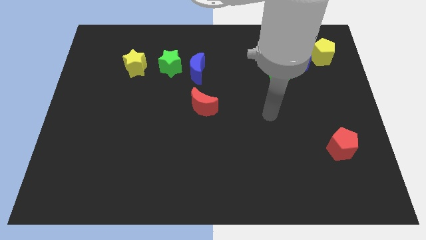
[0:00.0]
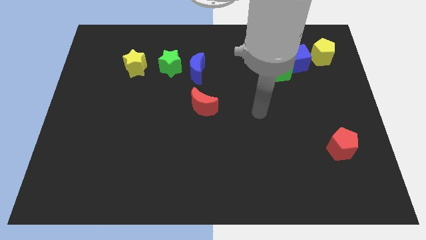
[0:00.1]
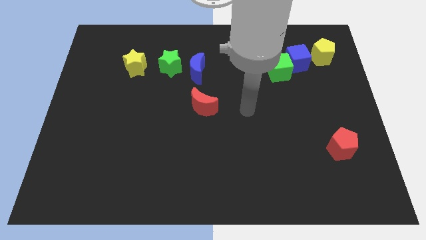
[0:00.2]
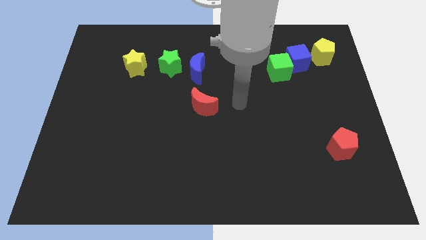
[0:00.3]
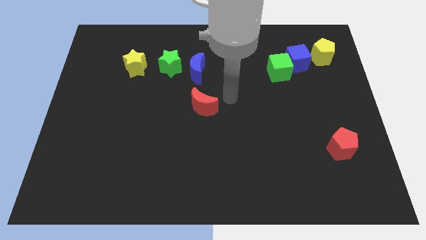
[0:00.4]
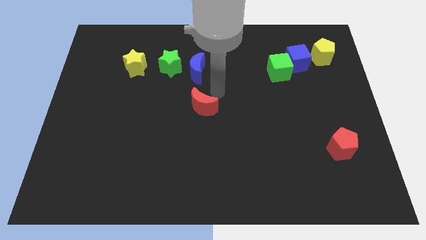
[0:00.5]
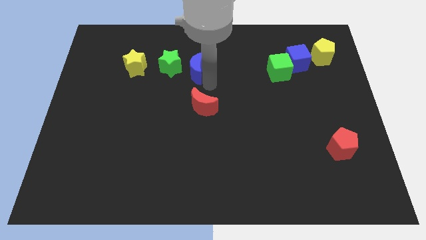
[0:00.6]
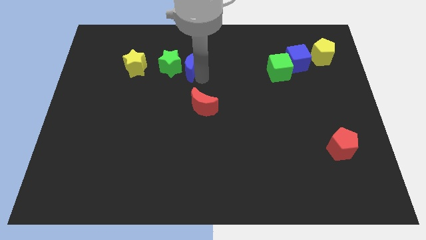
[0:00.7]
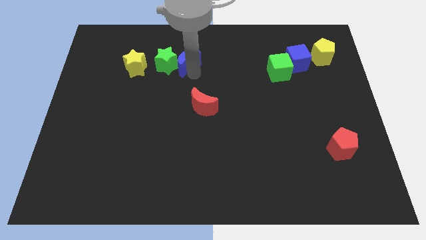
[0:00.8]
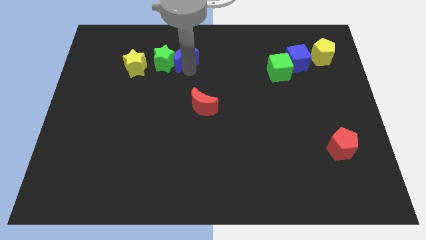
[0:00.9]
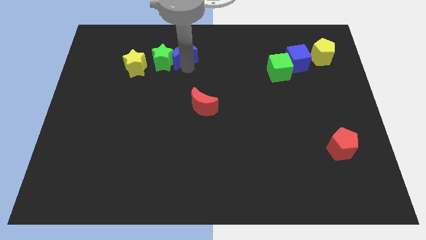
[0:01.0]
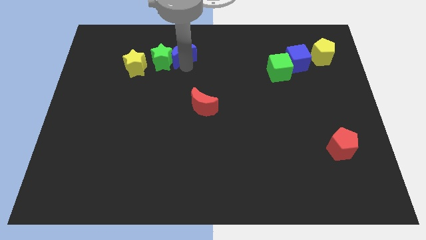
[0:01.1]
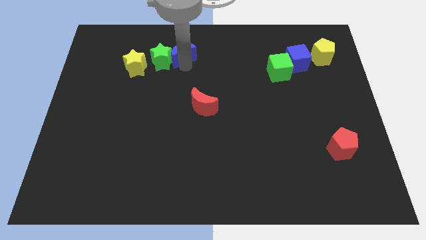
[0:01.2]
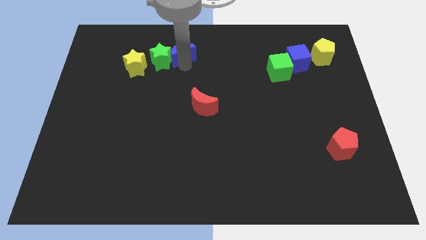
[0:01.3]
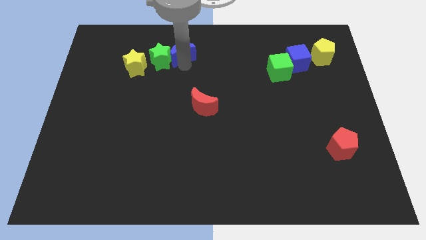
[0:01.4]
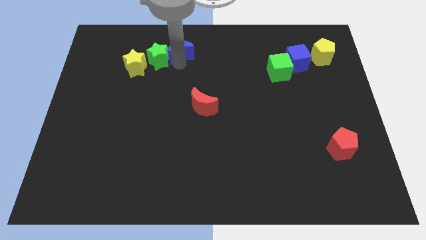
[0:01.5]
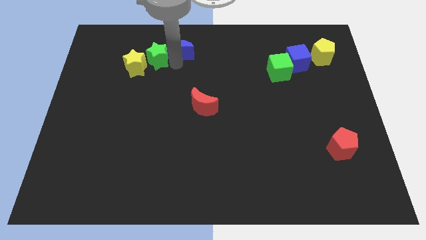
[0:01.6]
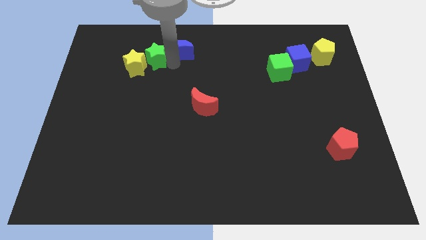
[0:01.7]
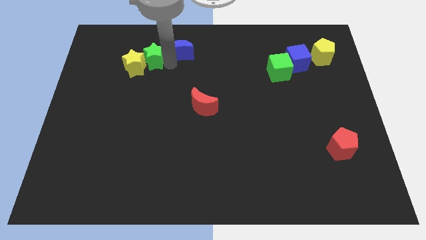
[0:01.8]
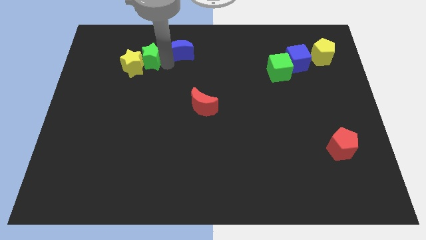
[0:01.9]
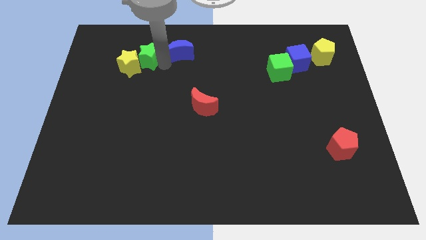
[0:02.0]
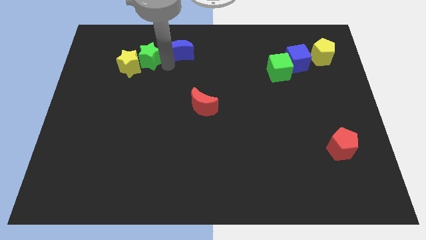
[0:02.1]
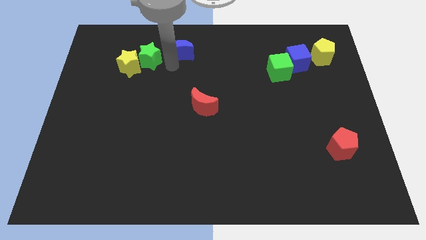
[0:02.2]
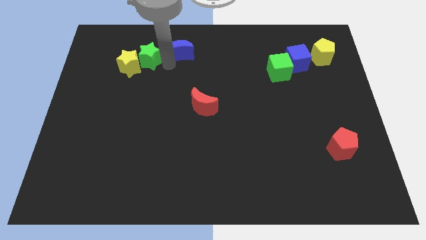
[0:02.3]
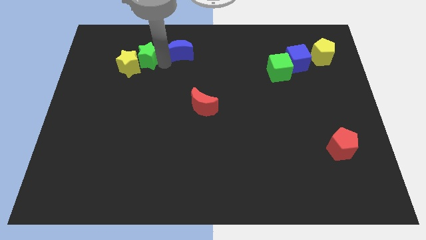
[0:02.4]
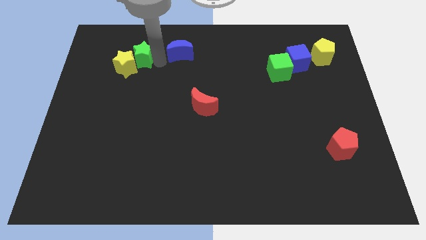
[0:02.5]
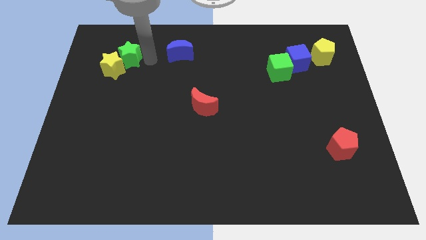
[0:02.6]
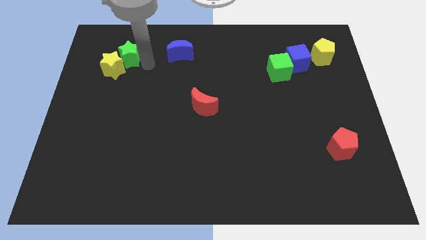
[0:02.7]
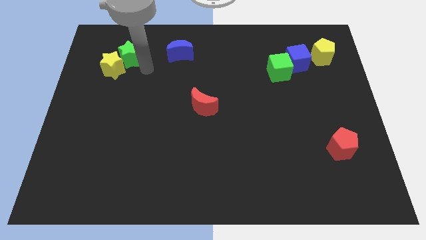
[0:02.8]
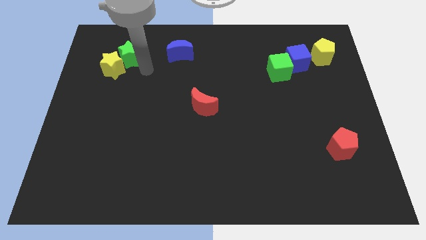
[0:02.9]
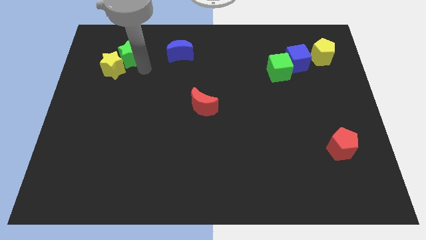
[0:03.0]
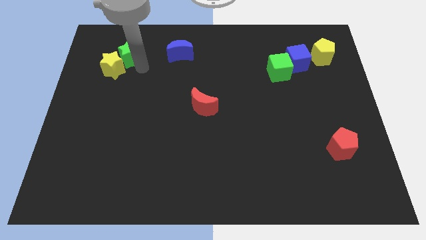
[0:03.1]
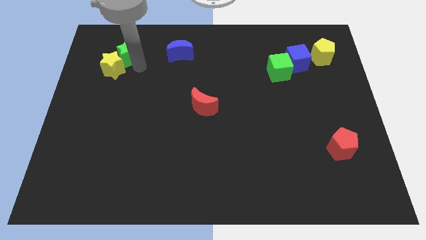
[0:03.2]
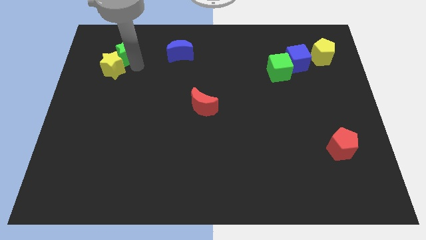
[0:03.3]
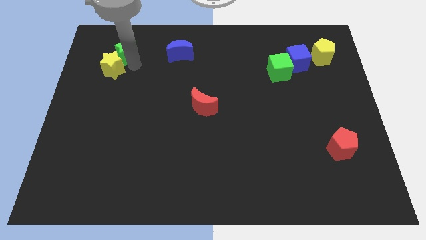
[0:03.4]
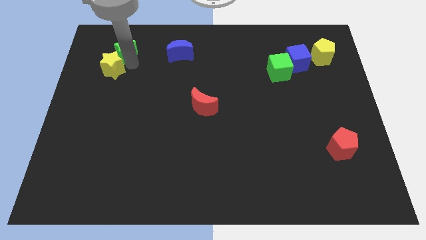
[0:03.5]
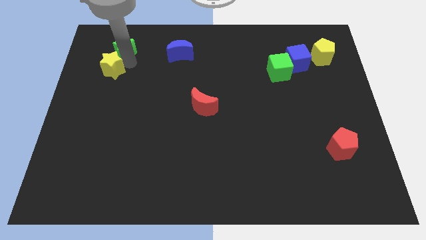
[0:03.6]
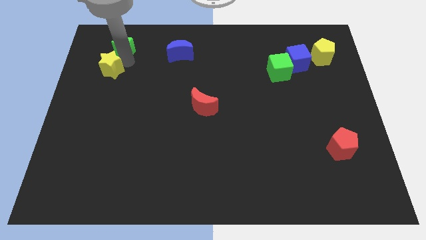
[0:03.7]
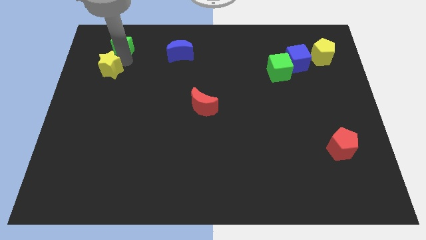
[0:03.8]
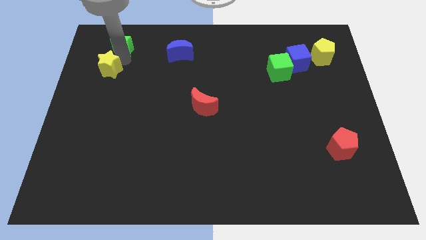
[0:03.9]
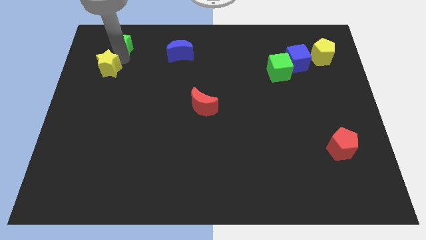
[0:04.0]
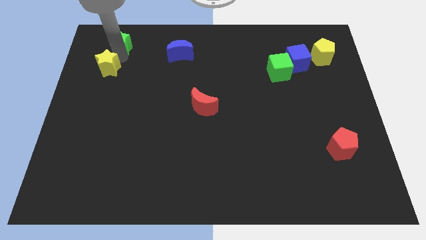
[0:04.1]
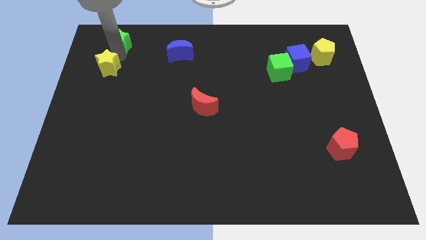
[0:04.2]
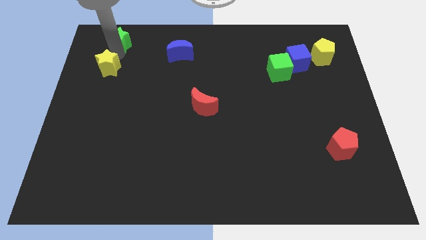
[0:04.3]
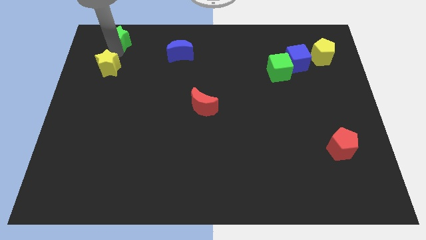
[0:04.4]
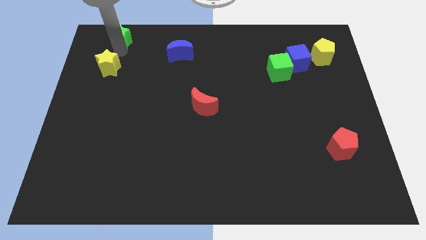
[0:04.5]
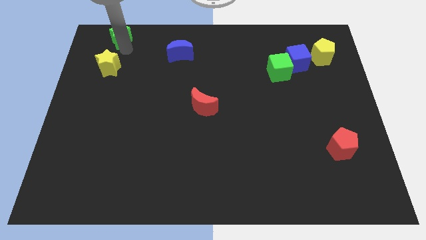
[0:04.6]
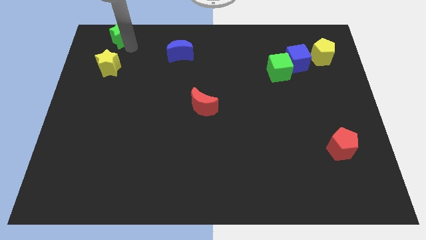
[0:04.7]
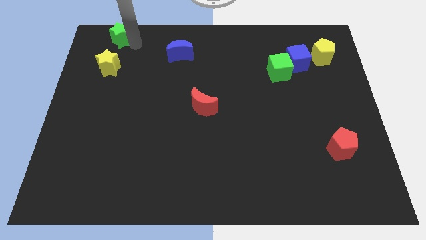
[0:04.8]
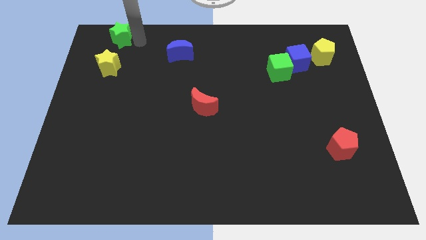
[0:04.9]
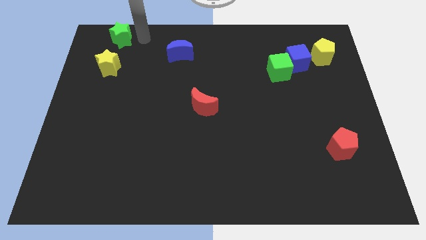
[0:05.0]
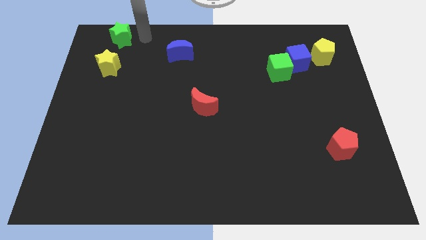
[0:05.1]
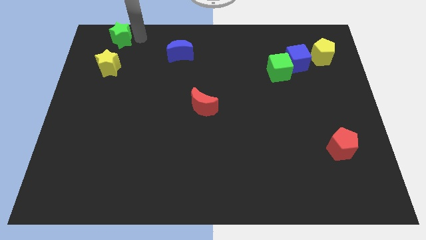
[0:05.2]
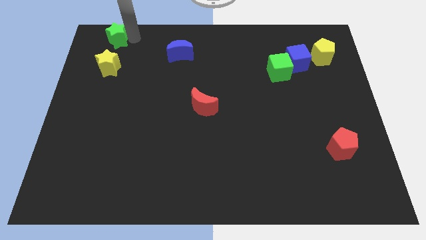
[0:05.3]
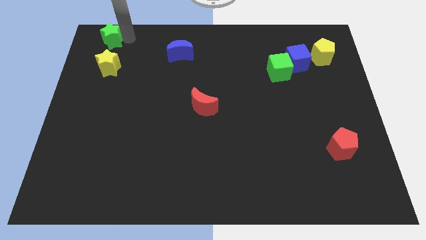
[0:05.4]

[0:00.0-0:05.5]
put the green star to the top left
